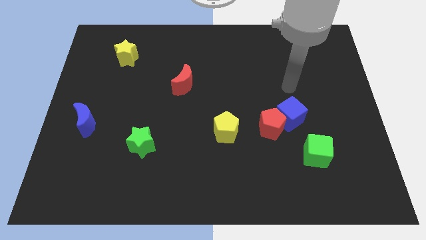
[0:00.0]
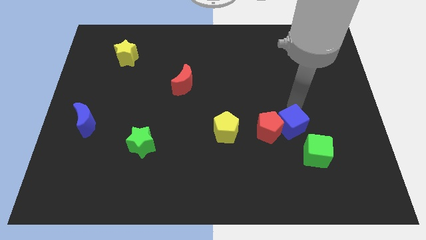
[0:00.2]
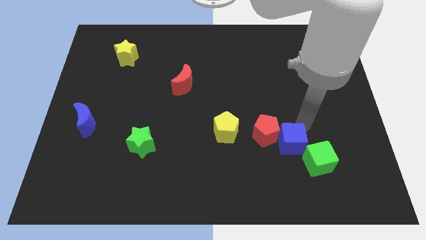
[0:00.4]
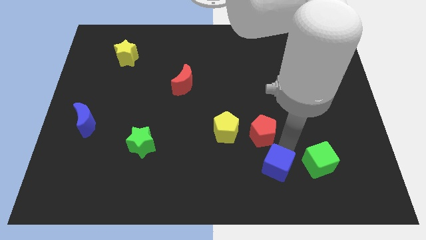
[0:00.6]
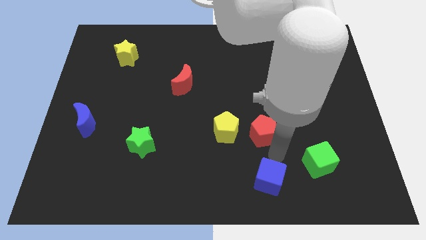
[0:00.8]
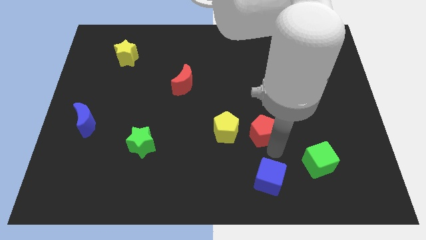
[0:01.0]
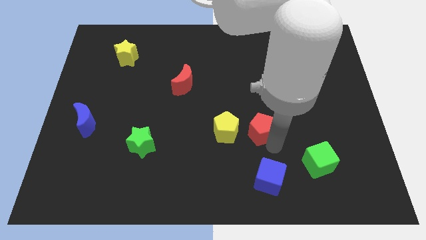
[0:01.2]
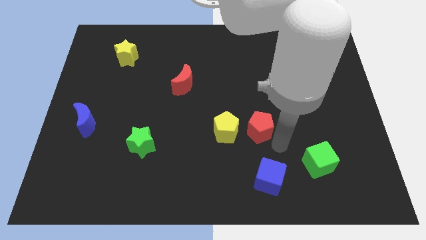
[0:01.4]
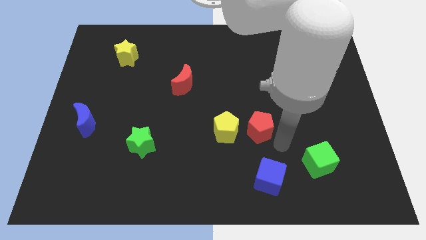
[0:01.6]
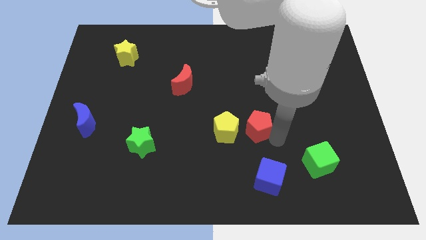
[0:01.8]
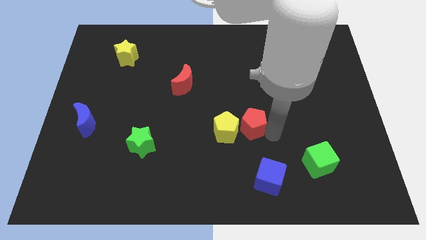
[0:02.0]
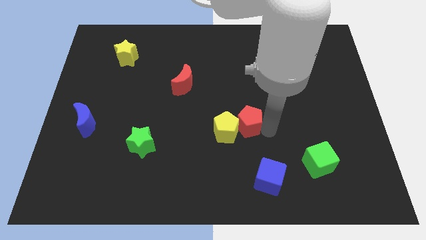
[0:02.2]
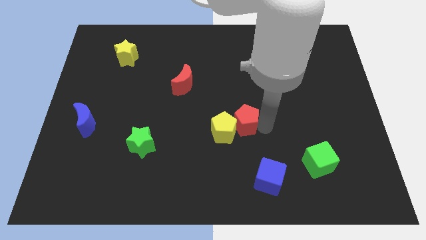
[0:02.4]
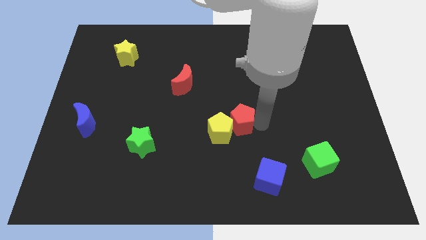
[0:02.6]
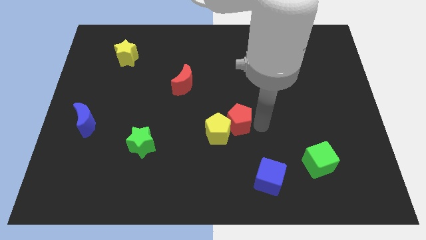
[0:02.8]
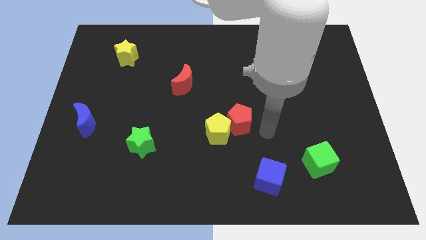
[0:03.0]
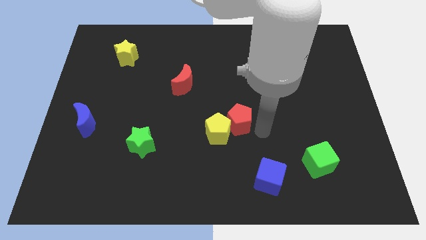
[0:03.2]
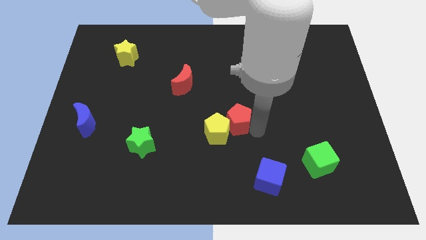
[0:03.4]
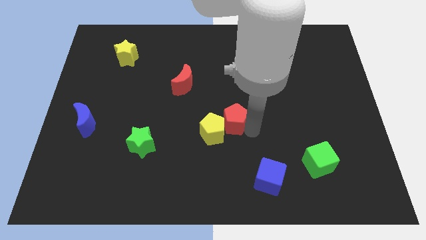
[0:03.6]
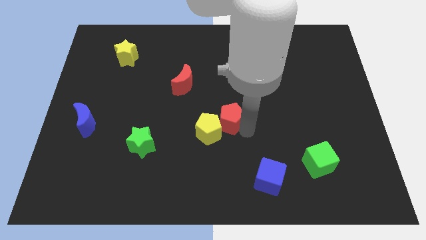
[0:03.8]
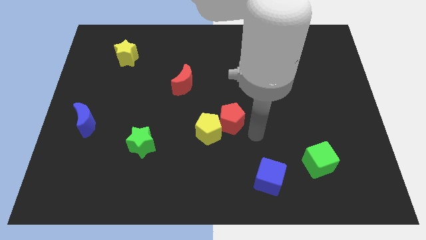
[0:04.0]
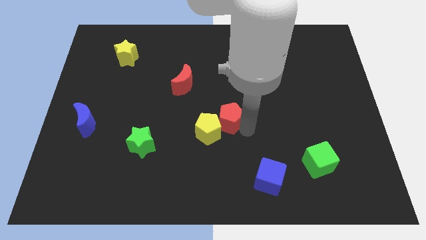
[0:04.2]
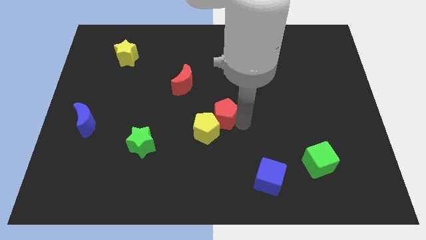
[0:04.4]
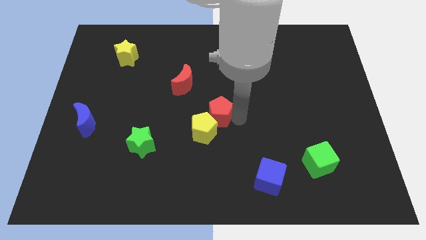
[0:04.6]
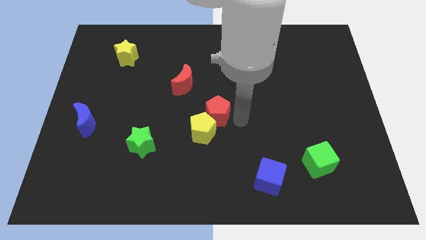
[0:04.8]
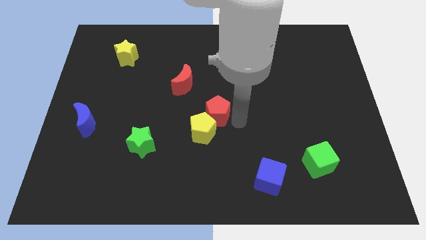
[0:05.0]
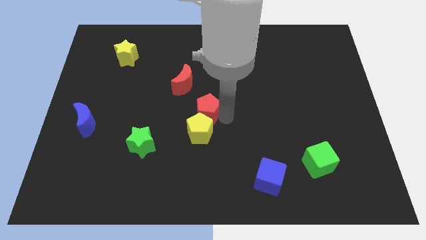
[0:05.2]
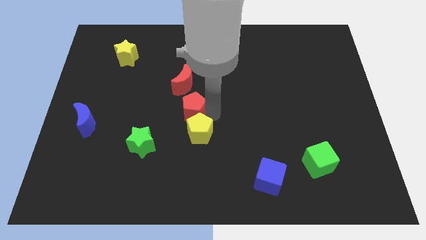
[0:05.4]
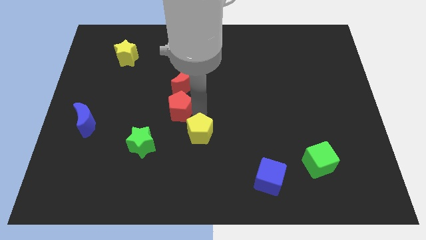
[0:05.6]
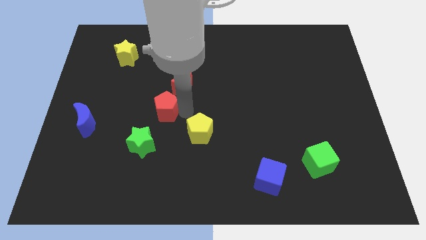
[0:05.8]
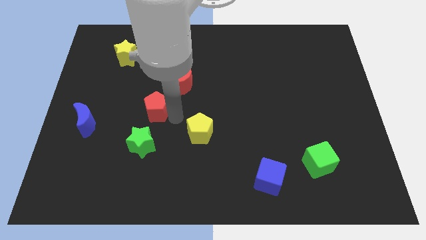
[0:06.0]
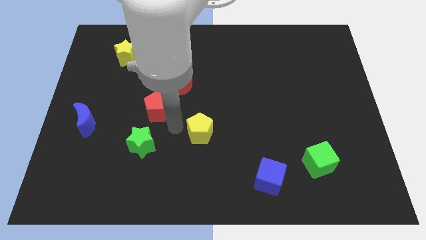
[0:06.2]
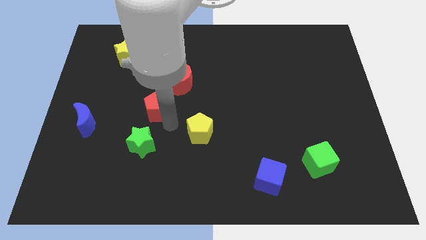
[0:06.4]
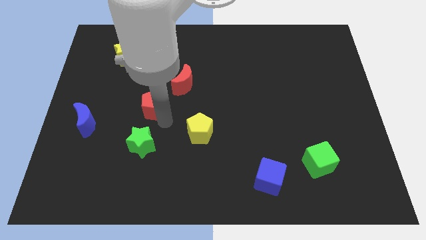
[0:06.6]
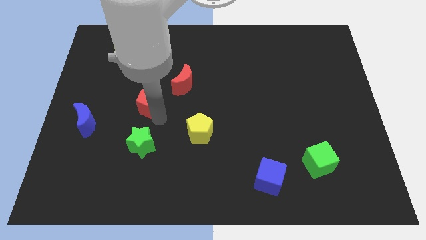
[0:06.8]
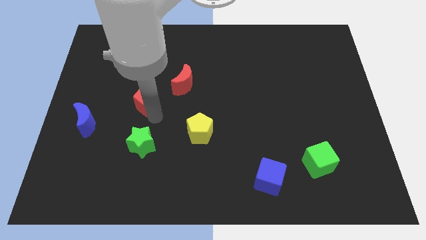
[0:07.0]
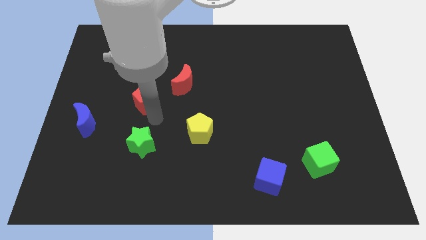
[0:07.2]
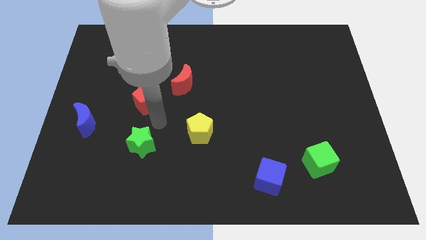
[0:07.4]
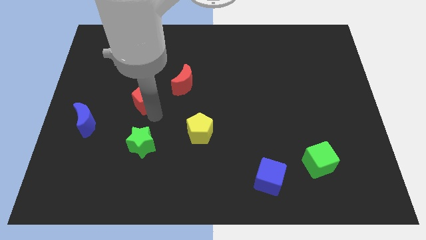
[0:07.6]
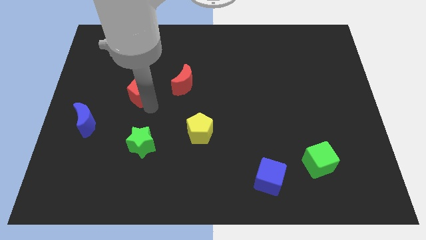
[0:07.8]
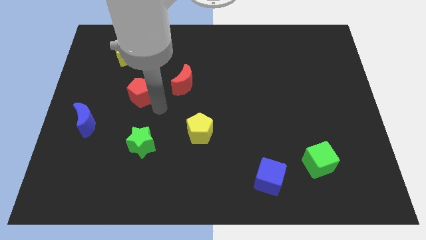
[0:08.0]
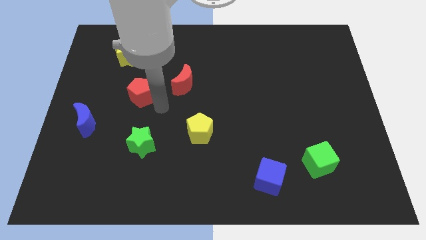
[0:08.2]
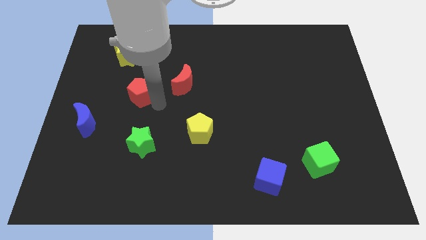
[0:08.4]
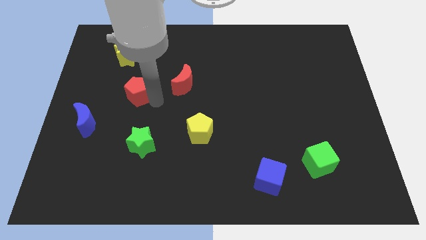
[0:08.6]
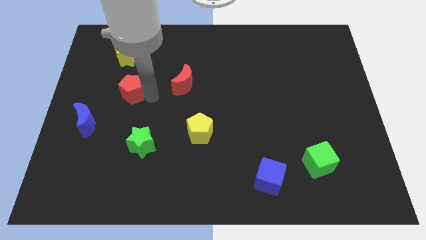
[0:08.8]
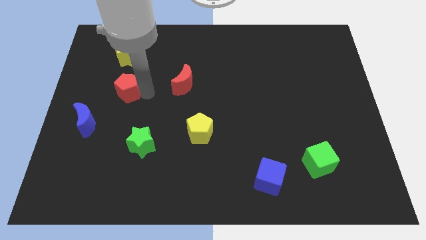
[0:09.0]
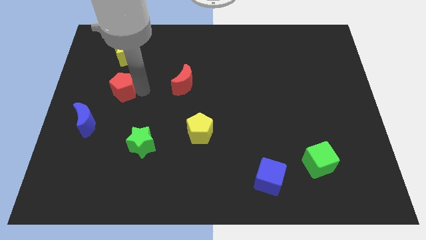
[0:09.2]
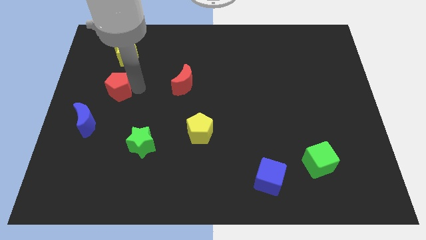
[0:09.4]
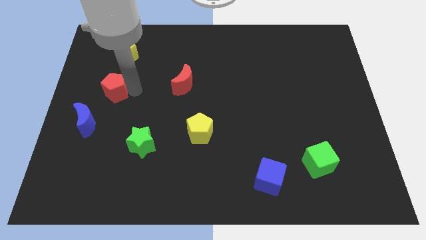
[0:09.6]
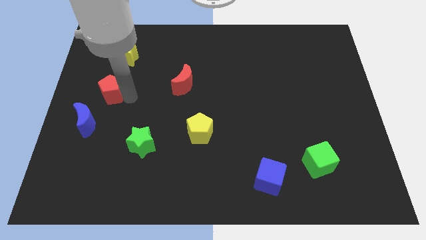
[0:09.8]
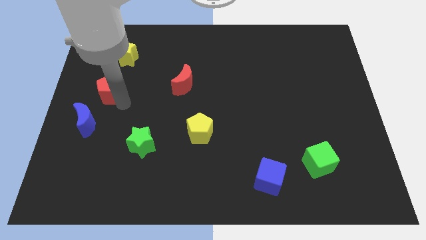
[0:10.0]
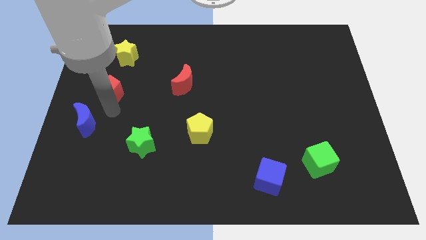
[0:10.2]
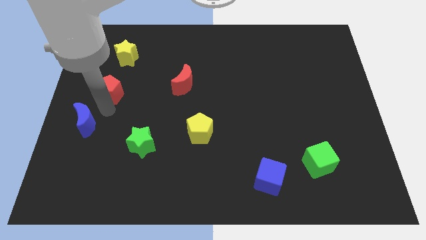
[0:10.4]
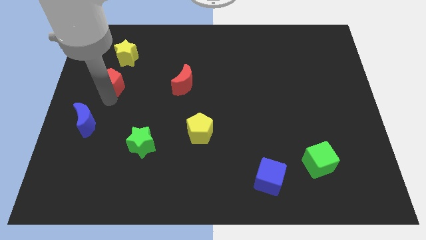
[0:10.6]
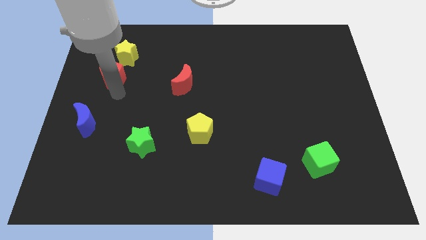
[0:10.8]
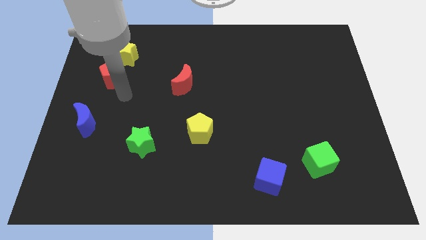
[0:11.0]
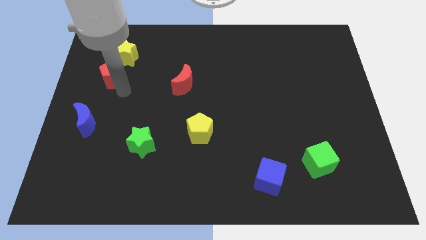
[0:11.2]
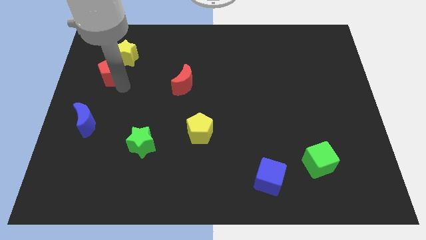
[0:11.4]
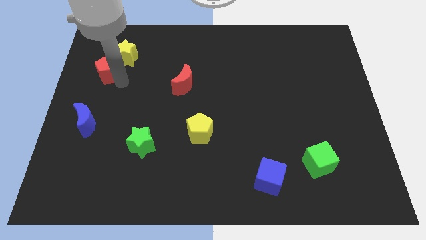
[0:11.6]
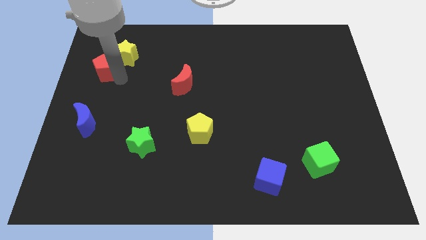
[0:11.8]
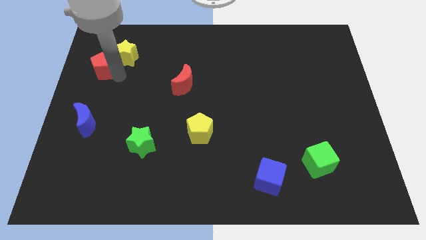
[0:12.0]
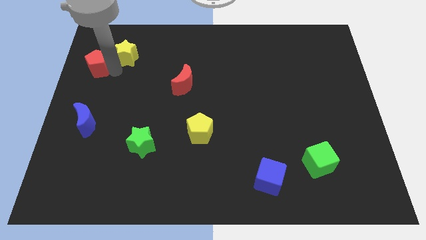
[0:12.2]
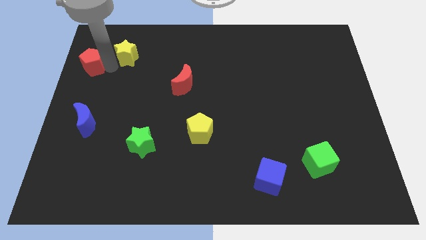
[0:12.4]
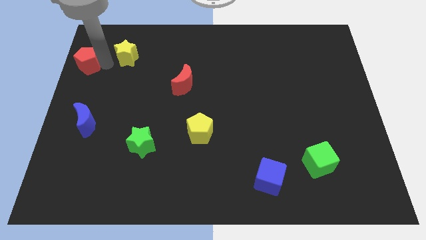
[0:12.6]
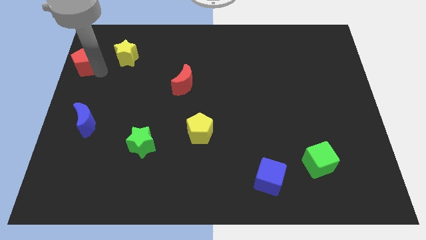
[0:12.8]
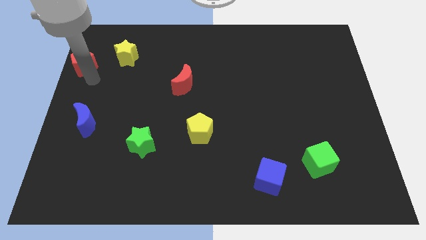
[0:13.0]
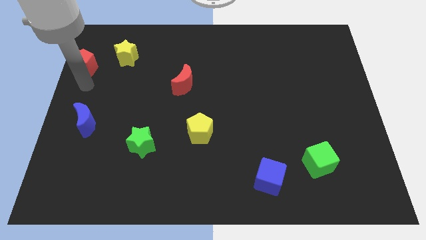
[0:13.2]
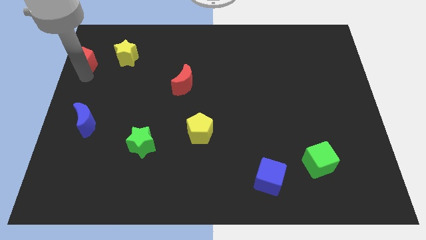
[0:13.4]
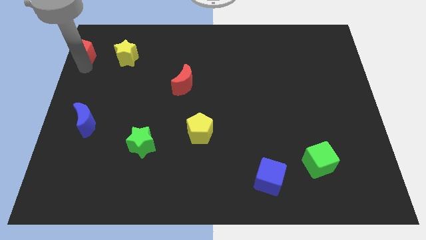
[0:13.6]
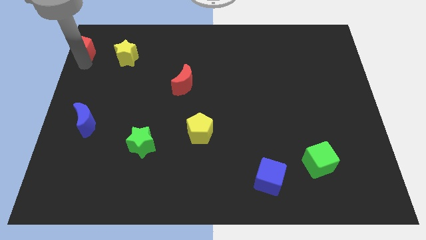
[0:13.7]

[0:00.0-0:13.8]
slide the red pentagon to the top left corner

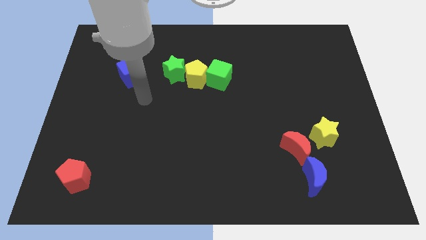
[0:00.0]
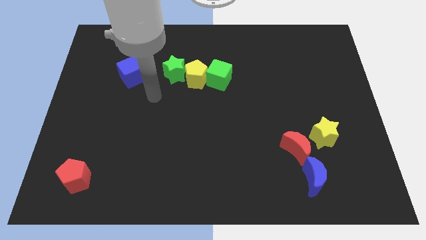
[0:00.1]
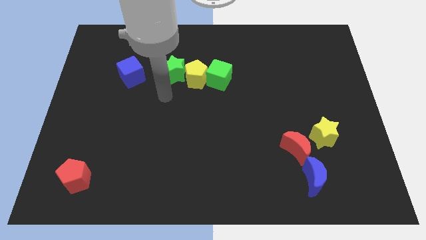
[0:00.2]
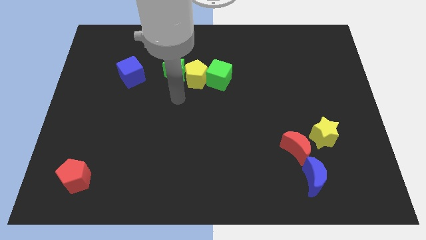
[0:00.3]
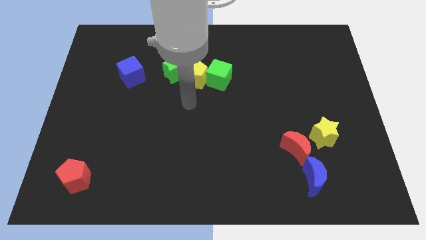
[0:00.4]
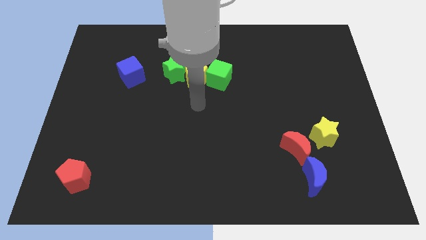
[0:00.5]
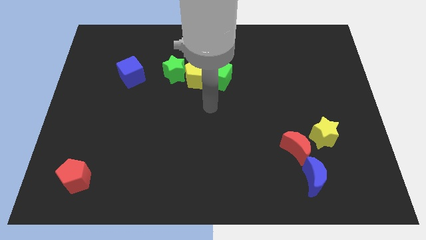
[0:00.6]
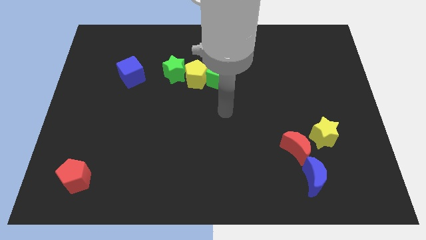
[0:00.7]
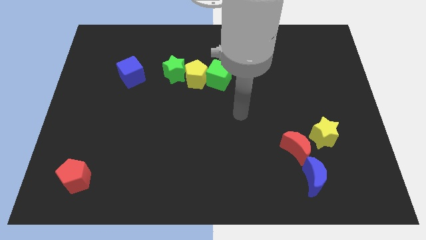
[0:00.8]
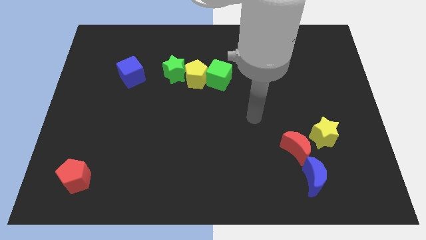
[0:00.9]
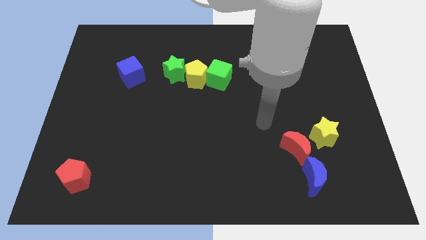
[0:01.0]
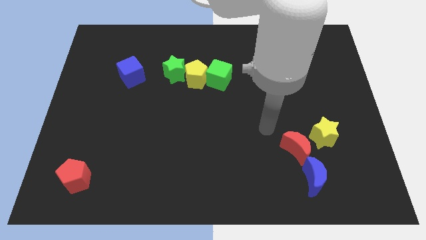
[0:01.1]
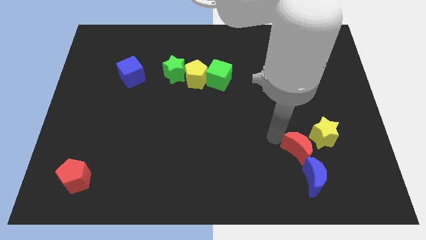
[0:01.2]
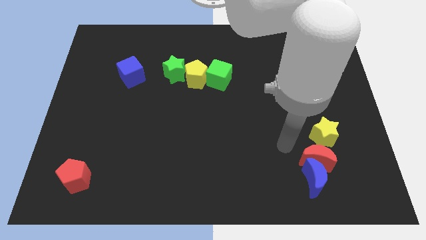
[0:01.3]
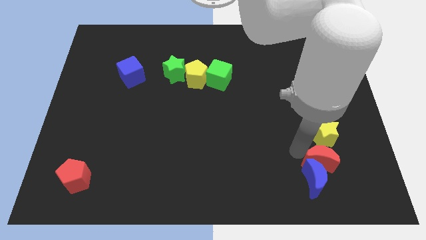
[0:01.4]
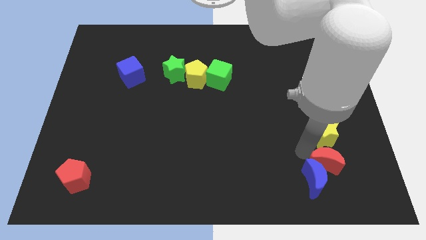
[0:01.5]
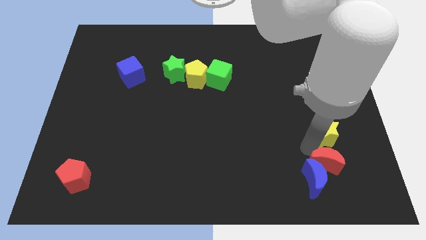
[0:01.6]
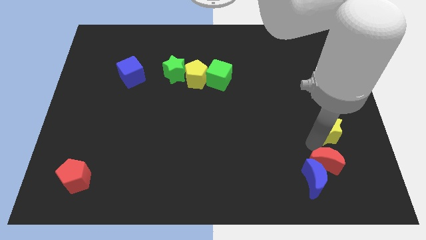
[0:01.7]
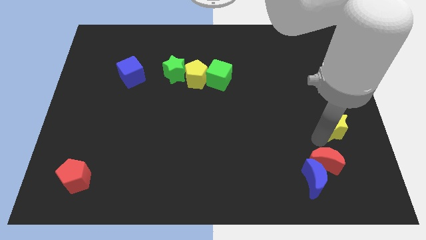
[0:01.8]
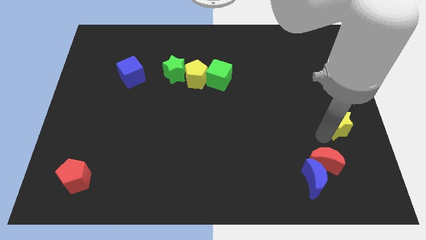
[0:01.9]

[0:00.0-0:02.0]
put the yellow star to the center right
